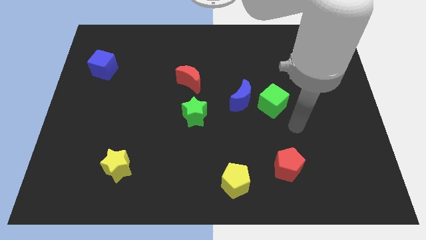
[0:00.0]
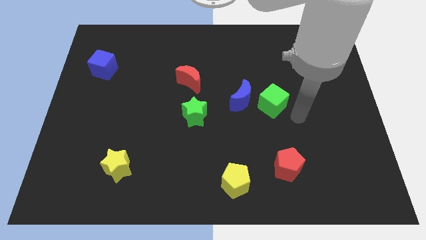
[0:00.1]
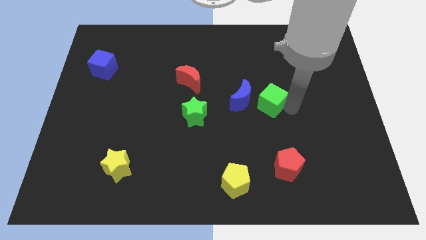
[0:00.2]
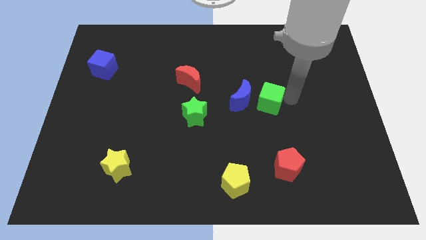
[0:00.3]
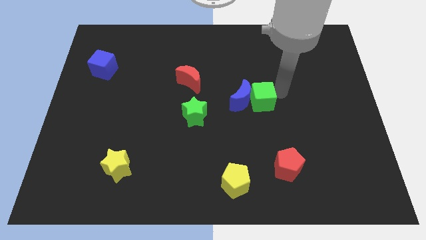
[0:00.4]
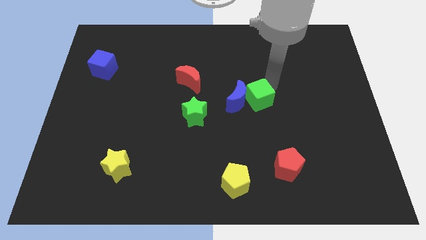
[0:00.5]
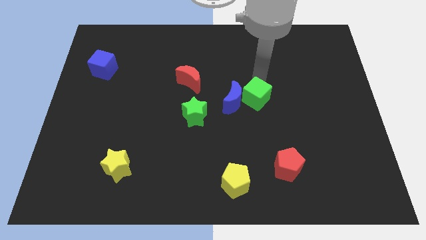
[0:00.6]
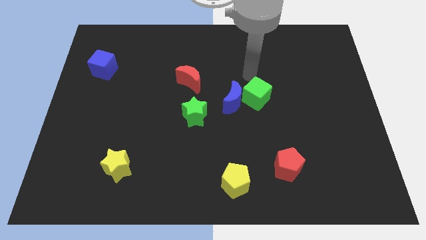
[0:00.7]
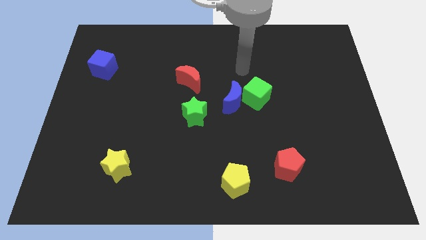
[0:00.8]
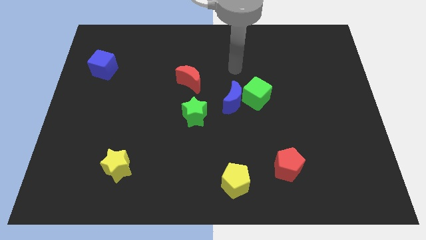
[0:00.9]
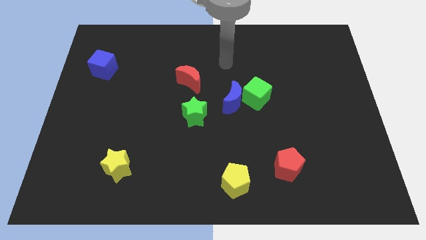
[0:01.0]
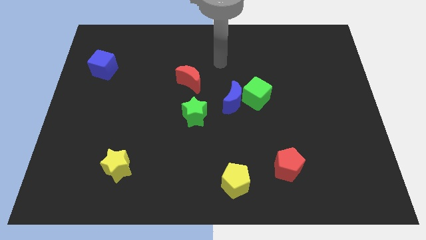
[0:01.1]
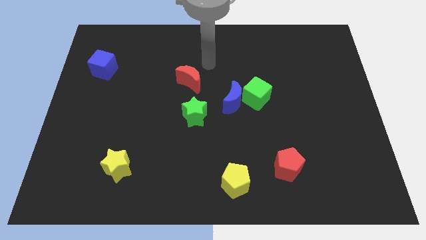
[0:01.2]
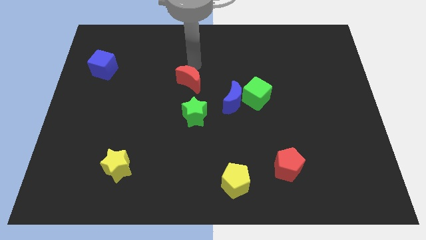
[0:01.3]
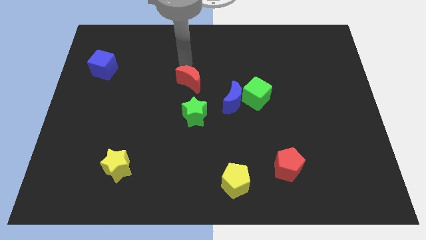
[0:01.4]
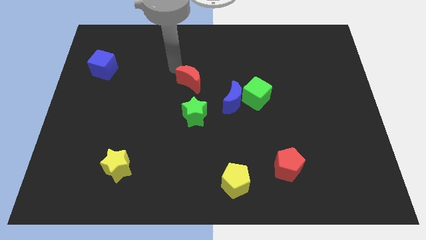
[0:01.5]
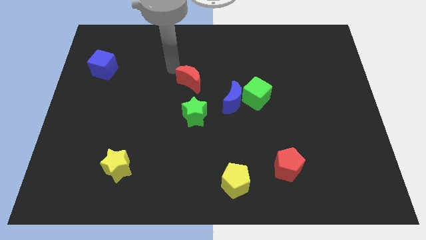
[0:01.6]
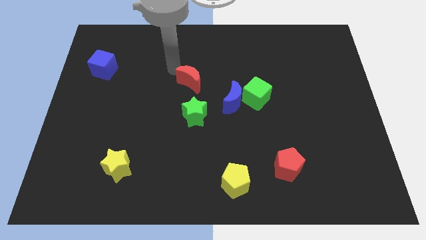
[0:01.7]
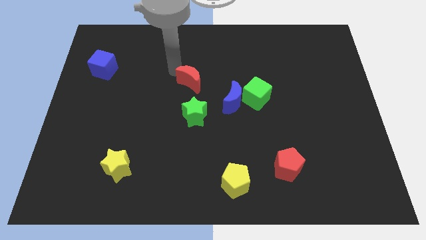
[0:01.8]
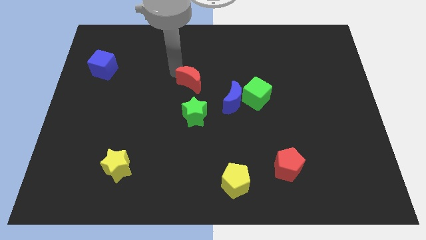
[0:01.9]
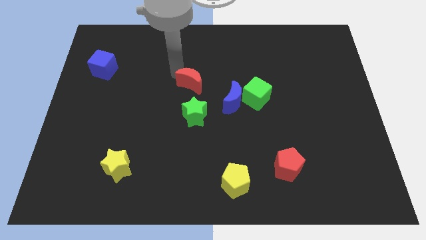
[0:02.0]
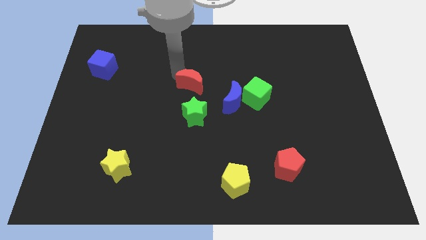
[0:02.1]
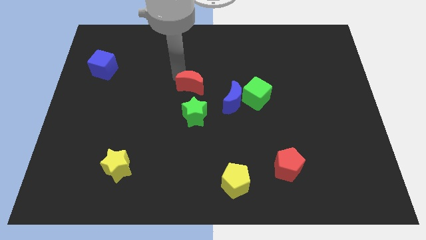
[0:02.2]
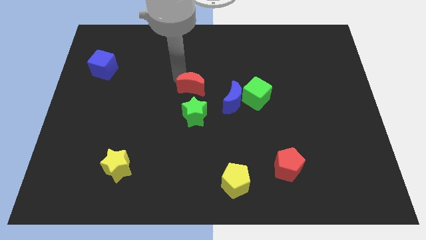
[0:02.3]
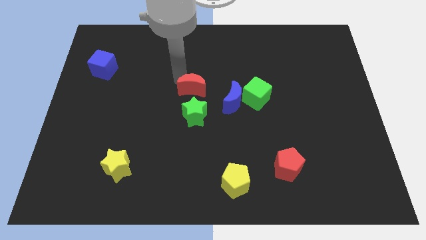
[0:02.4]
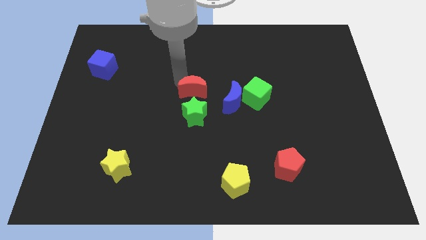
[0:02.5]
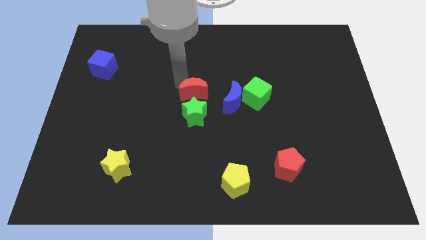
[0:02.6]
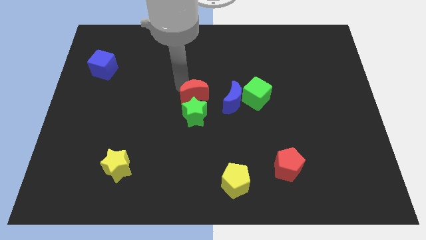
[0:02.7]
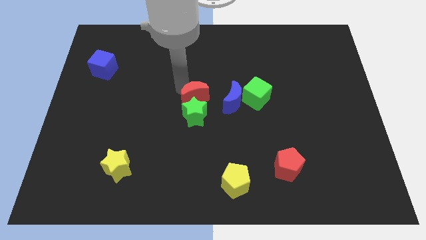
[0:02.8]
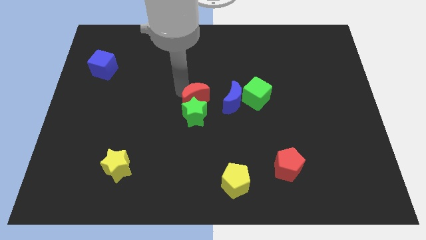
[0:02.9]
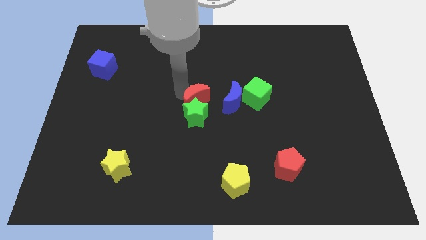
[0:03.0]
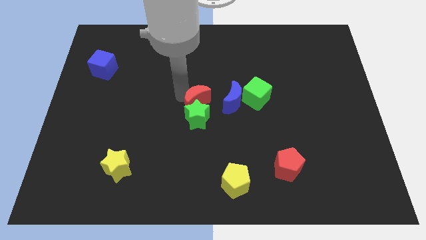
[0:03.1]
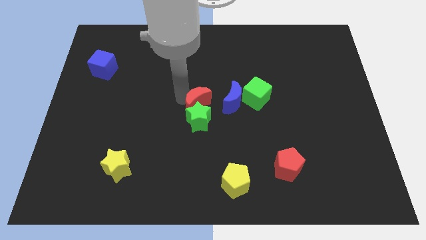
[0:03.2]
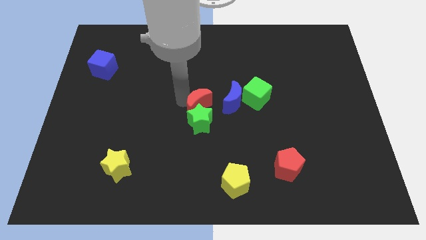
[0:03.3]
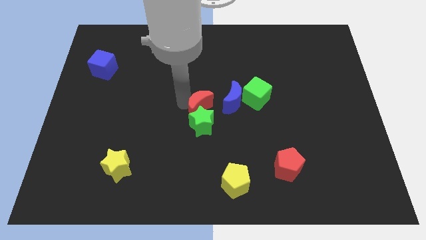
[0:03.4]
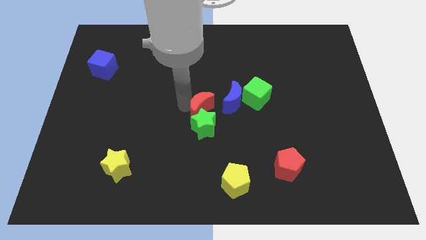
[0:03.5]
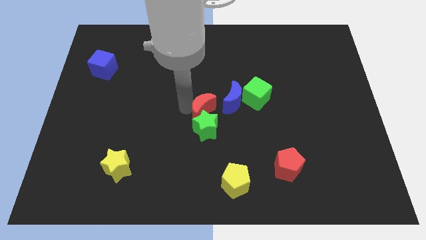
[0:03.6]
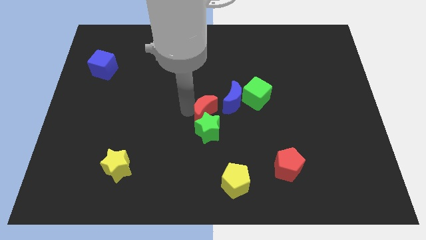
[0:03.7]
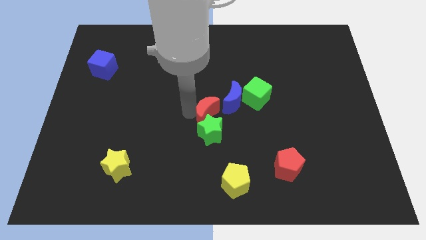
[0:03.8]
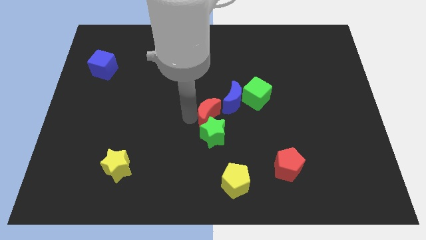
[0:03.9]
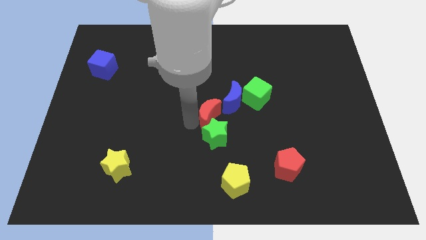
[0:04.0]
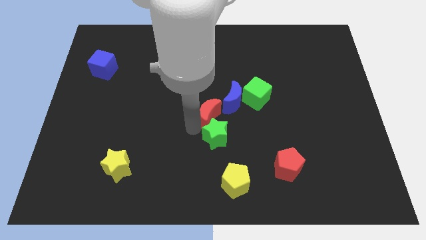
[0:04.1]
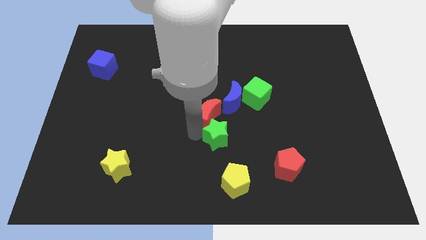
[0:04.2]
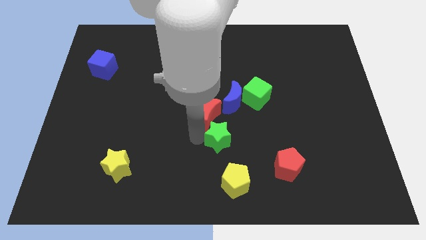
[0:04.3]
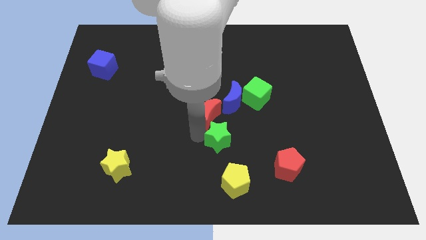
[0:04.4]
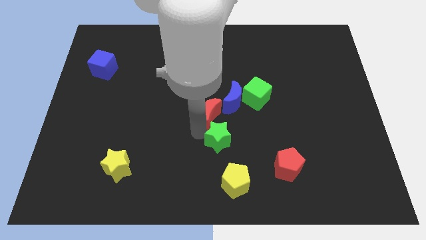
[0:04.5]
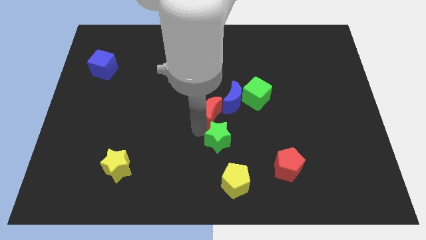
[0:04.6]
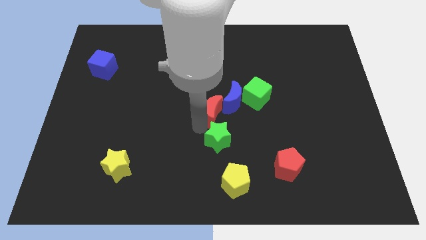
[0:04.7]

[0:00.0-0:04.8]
push the red moon to the bottom left of the green cube

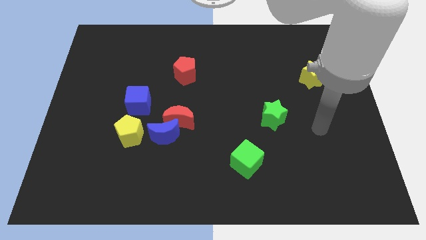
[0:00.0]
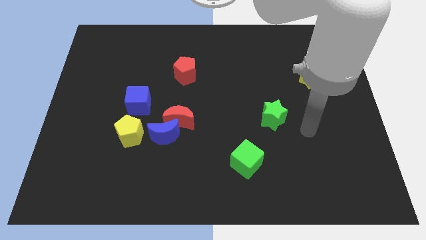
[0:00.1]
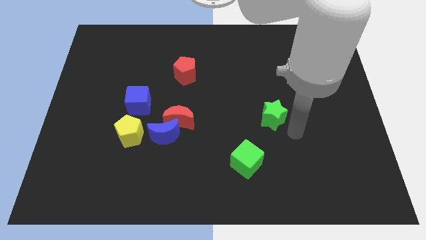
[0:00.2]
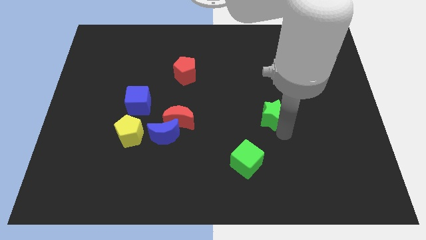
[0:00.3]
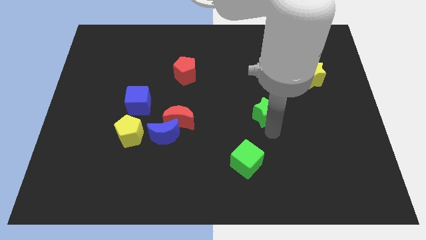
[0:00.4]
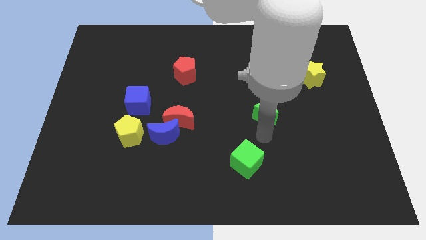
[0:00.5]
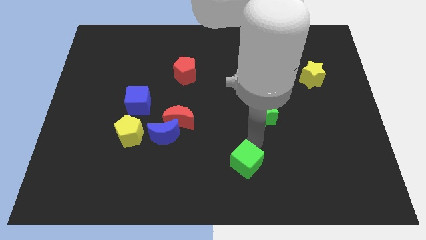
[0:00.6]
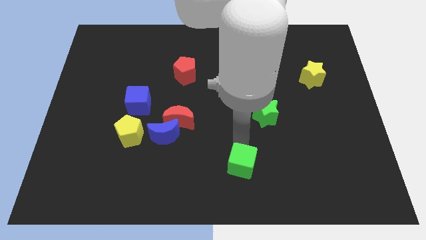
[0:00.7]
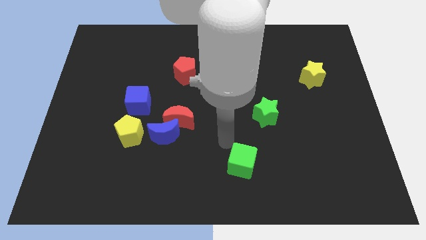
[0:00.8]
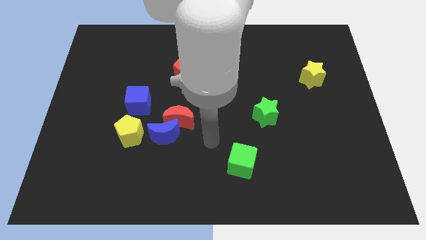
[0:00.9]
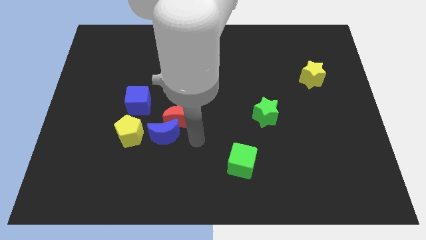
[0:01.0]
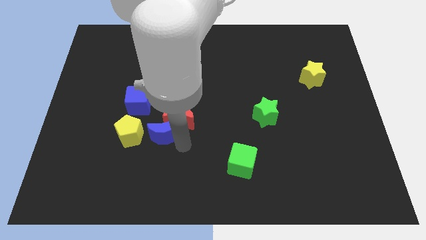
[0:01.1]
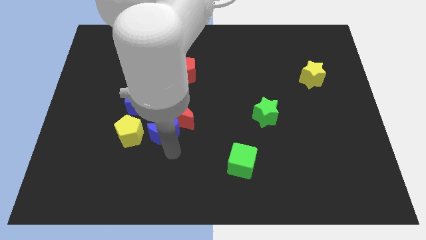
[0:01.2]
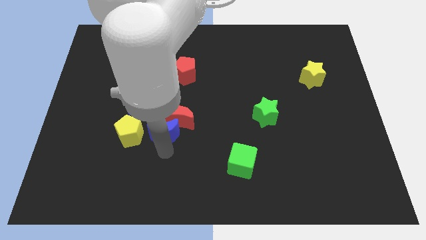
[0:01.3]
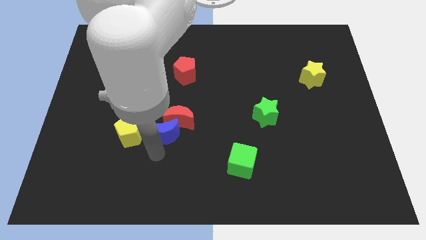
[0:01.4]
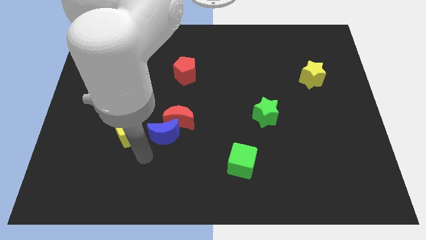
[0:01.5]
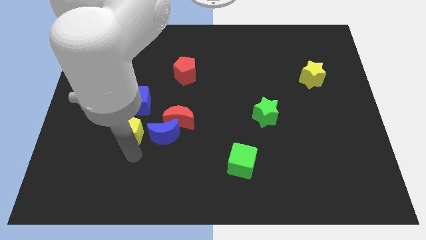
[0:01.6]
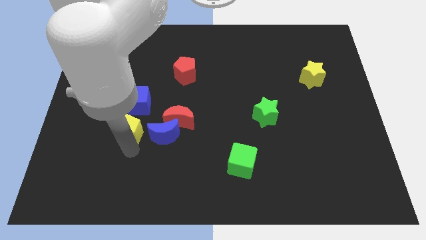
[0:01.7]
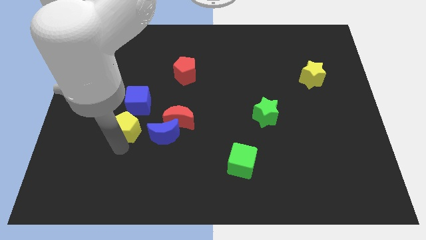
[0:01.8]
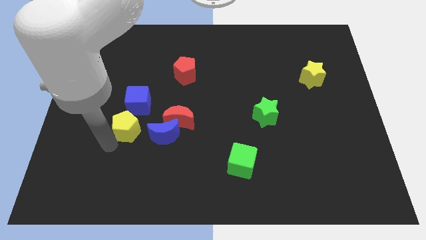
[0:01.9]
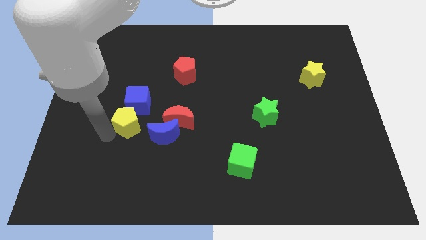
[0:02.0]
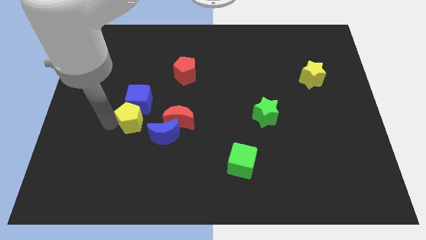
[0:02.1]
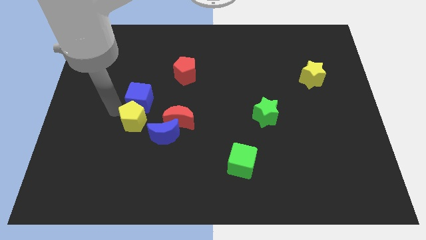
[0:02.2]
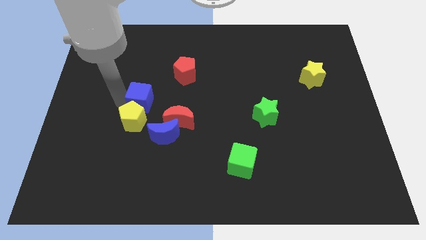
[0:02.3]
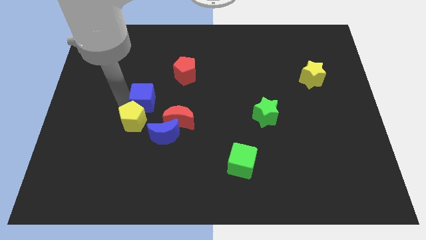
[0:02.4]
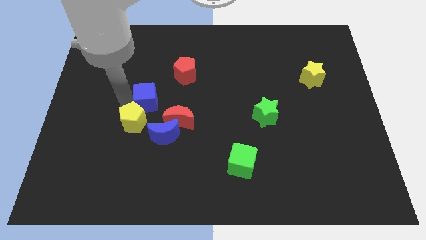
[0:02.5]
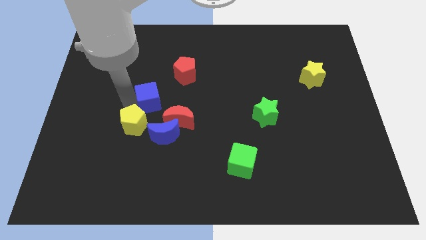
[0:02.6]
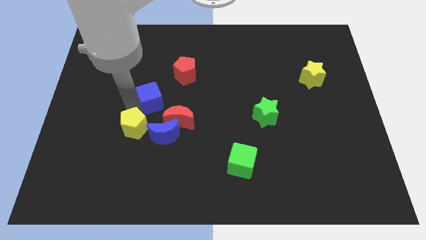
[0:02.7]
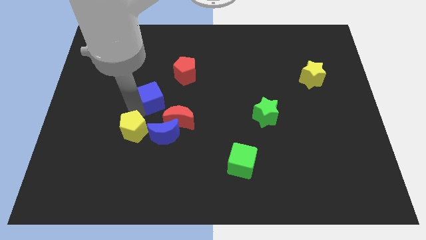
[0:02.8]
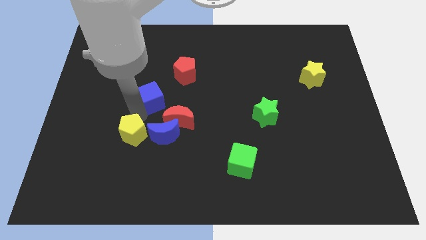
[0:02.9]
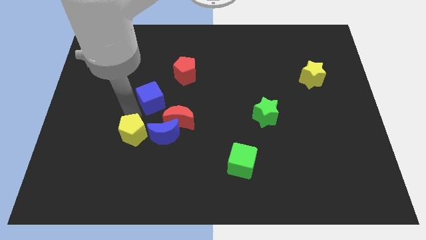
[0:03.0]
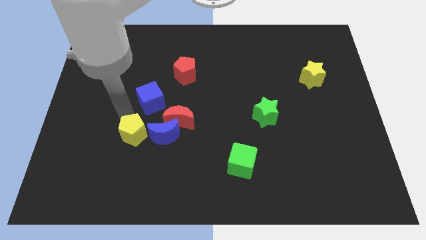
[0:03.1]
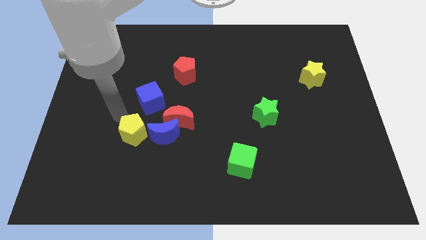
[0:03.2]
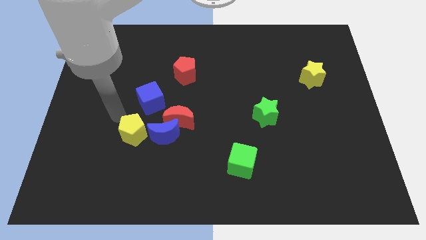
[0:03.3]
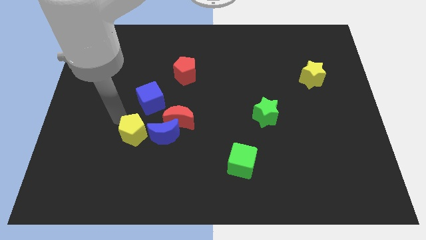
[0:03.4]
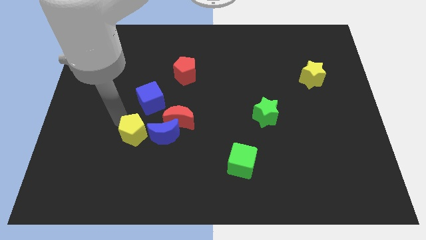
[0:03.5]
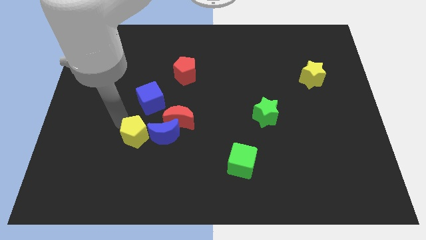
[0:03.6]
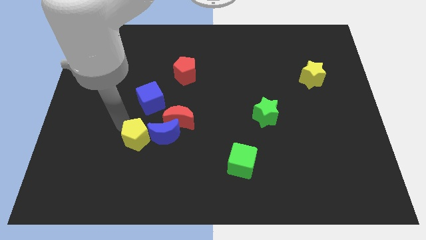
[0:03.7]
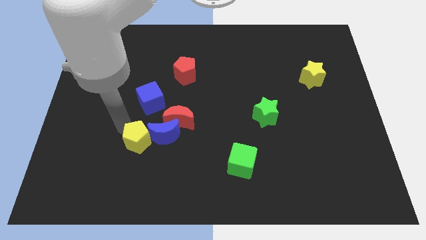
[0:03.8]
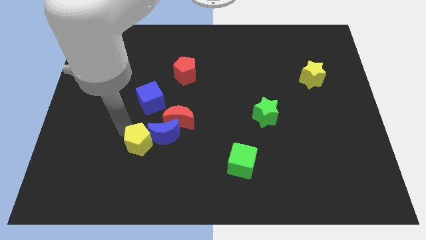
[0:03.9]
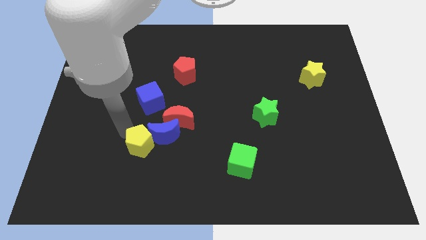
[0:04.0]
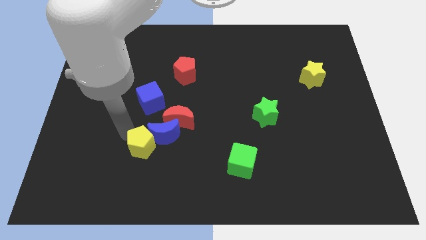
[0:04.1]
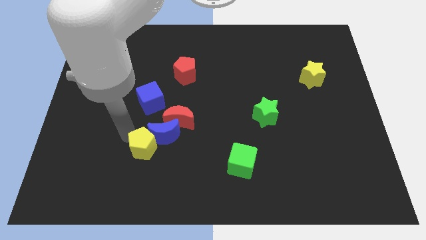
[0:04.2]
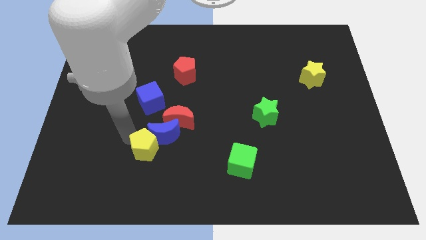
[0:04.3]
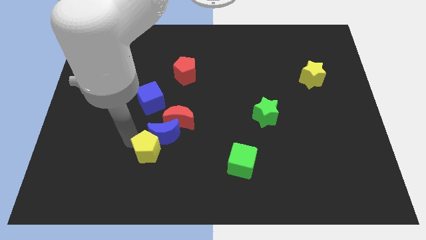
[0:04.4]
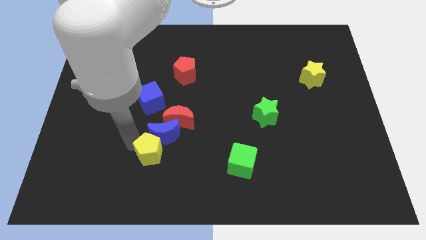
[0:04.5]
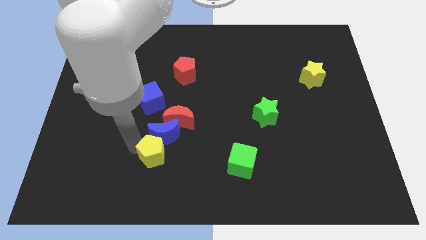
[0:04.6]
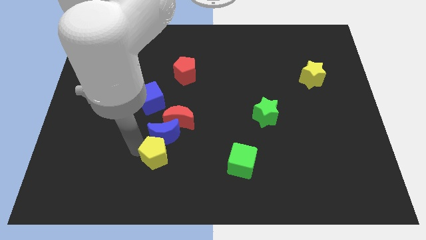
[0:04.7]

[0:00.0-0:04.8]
push the yellow pentagon to the bottom right side of the blue moon
